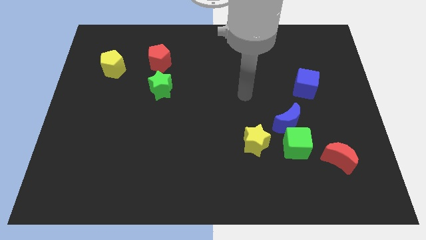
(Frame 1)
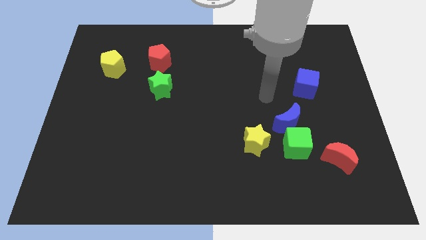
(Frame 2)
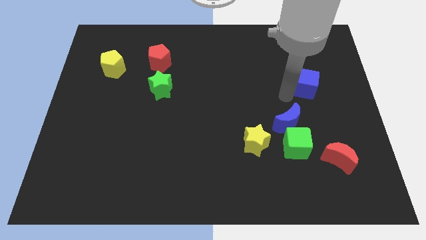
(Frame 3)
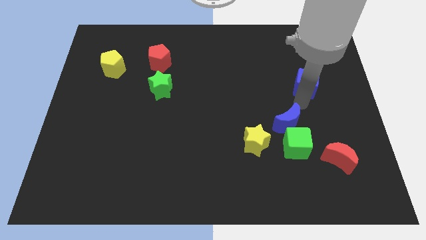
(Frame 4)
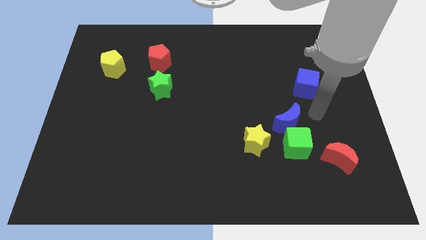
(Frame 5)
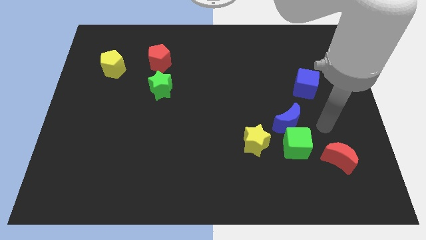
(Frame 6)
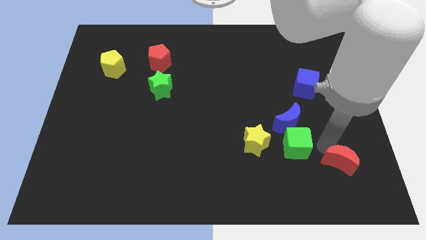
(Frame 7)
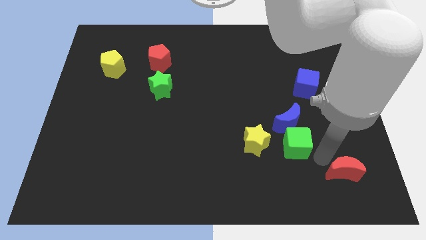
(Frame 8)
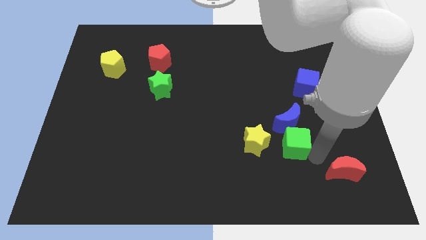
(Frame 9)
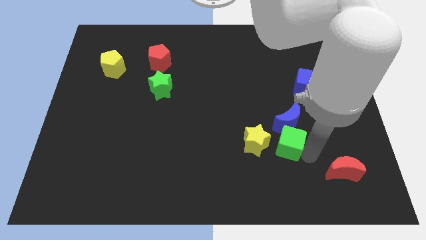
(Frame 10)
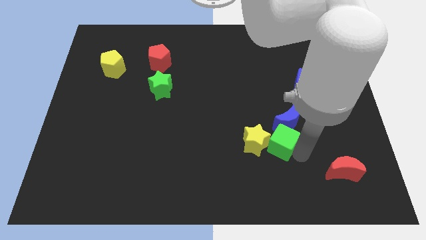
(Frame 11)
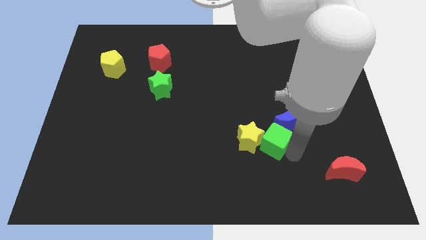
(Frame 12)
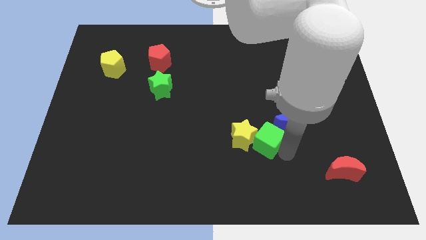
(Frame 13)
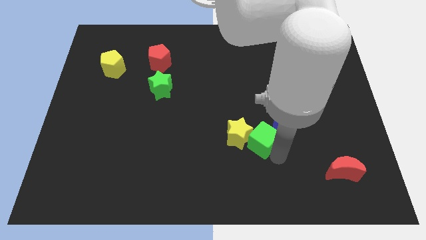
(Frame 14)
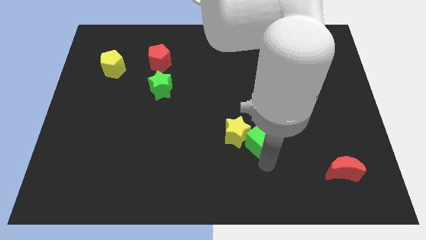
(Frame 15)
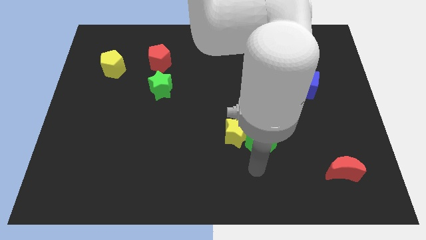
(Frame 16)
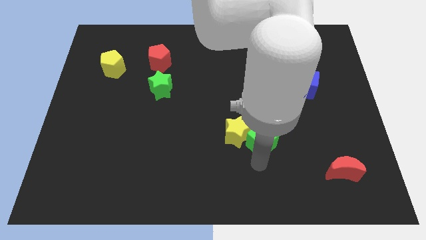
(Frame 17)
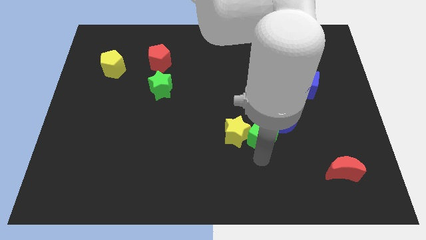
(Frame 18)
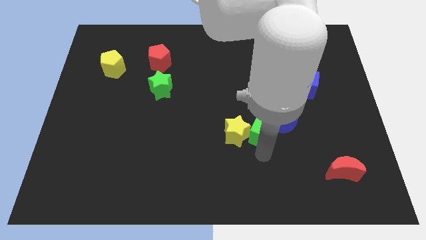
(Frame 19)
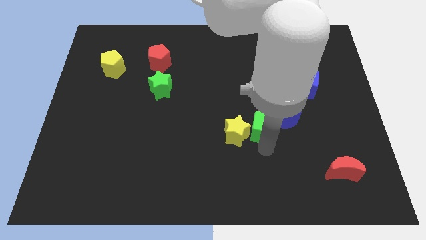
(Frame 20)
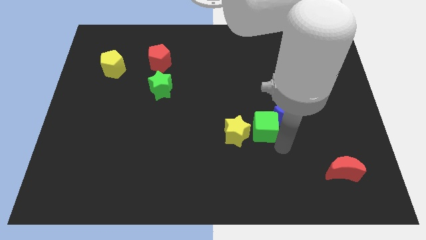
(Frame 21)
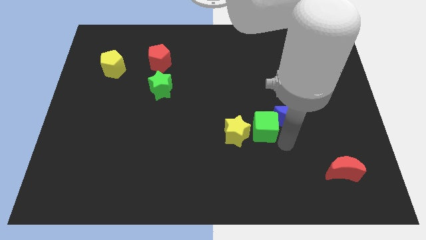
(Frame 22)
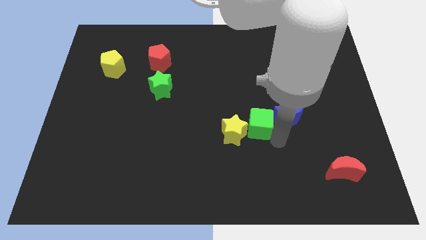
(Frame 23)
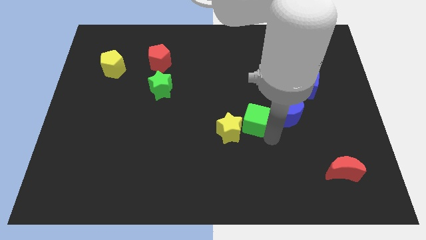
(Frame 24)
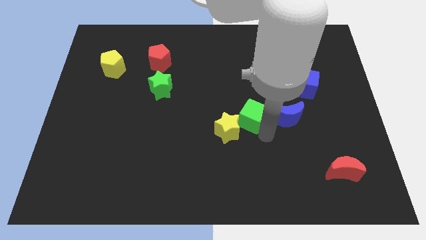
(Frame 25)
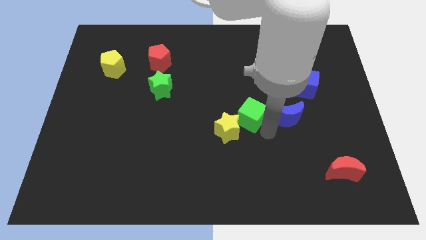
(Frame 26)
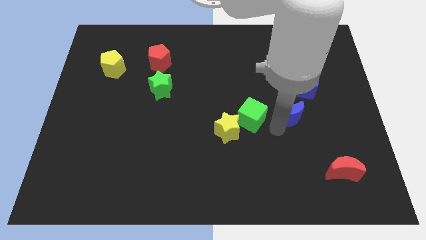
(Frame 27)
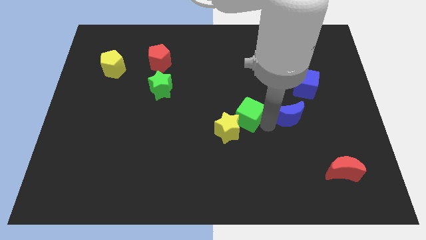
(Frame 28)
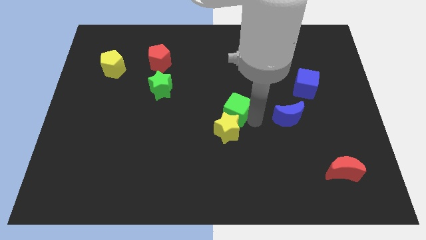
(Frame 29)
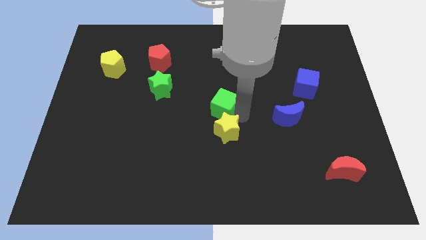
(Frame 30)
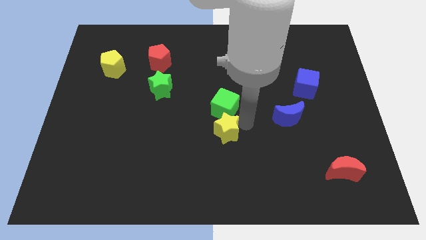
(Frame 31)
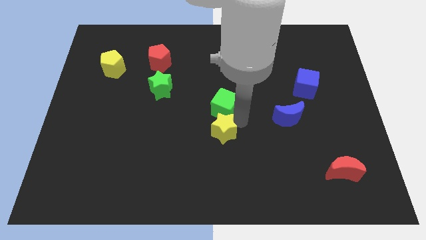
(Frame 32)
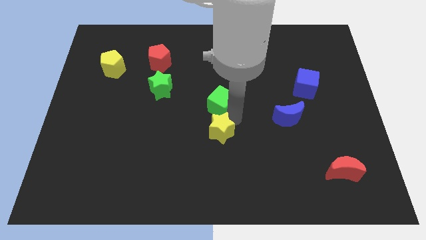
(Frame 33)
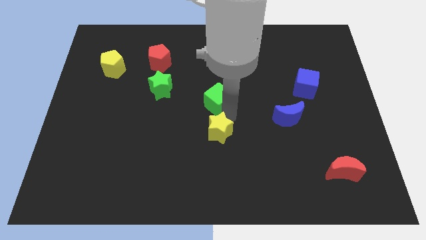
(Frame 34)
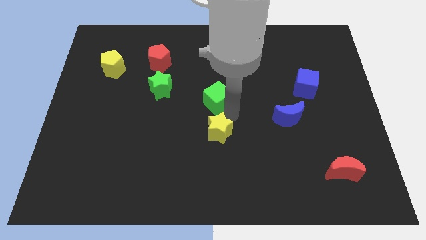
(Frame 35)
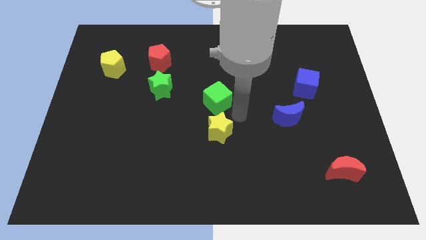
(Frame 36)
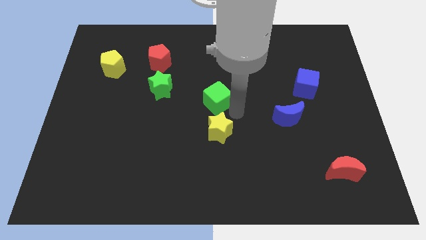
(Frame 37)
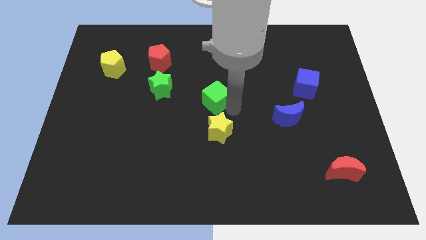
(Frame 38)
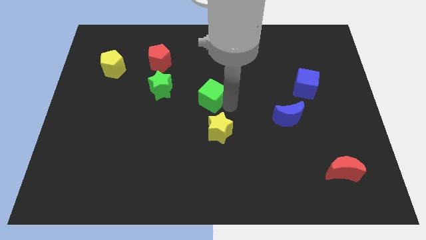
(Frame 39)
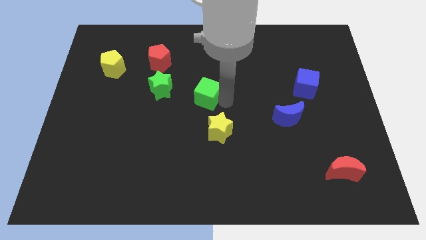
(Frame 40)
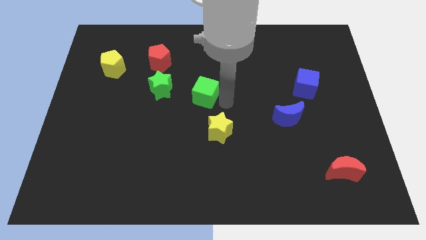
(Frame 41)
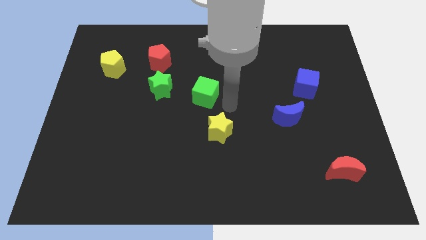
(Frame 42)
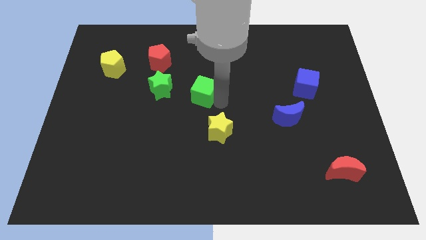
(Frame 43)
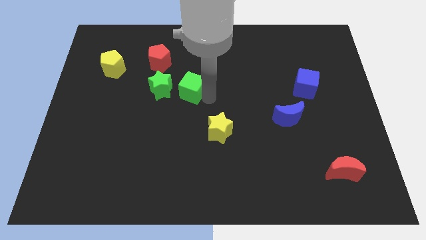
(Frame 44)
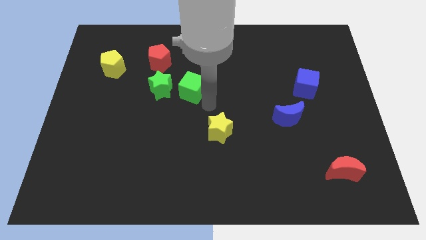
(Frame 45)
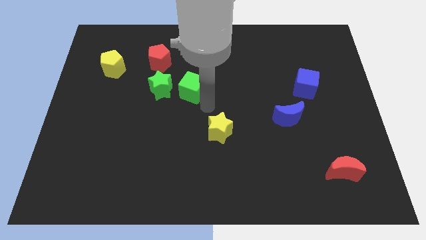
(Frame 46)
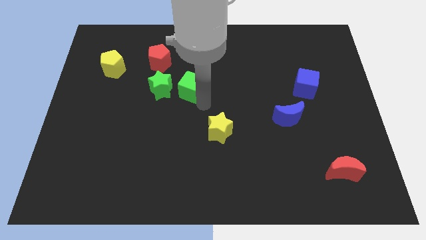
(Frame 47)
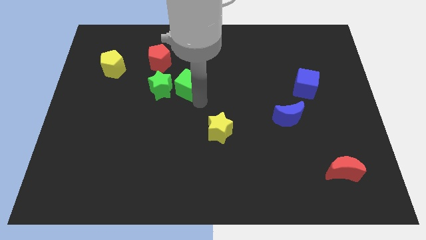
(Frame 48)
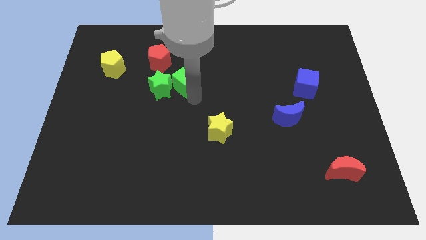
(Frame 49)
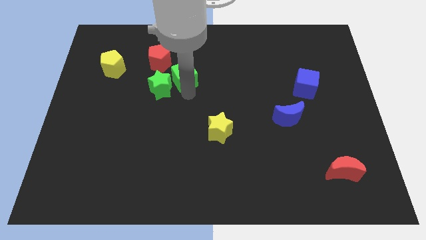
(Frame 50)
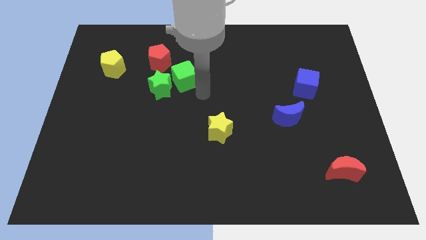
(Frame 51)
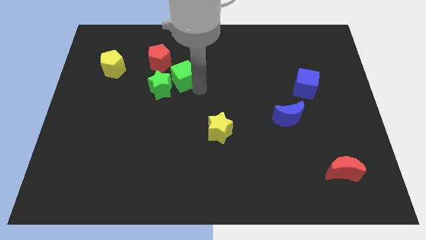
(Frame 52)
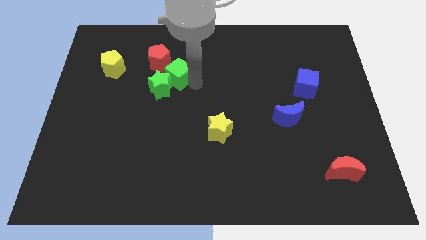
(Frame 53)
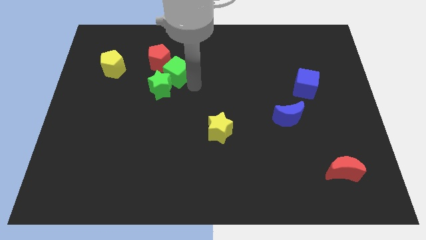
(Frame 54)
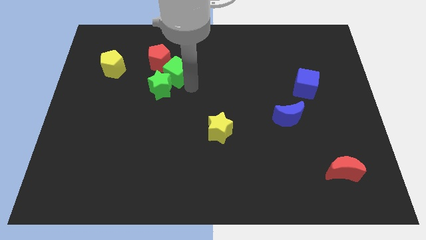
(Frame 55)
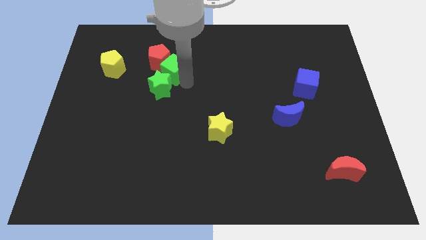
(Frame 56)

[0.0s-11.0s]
push the green cube next to the red pentagon

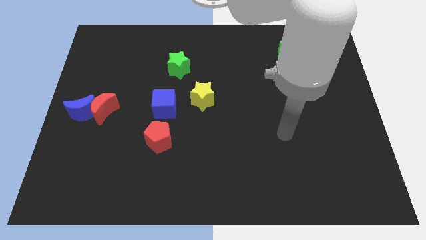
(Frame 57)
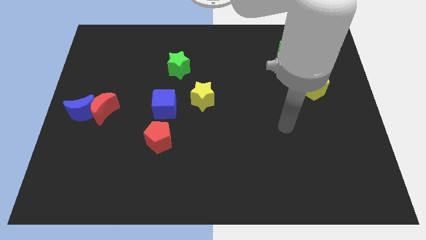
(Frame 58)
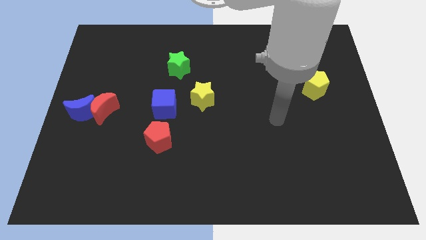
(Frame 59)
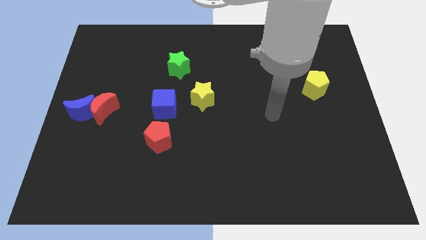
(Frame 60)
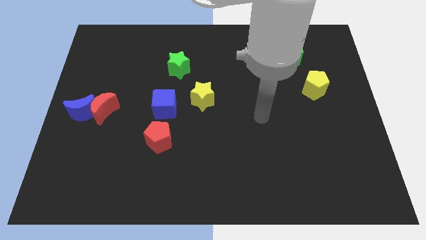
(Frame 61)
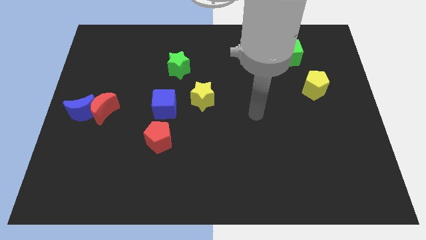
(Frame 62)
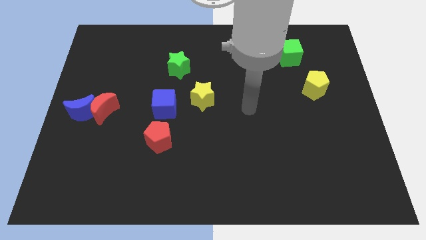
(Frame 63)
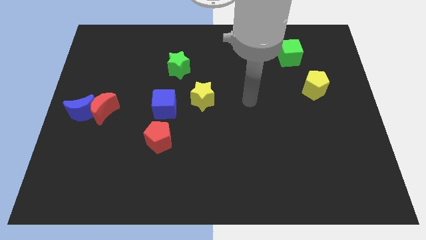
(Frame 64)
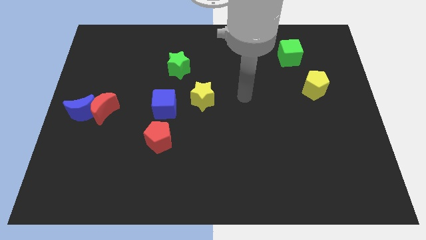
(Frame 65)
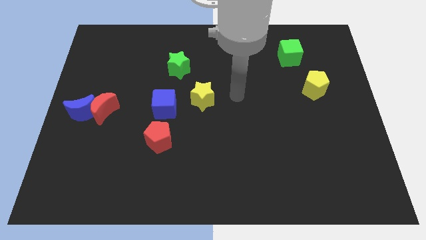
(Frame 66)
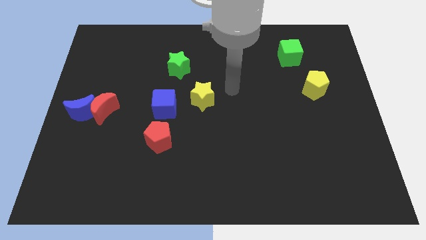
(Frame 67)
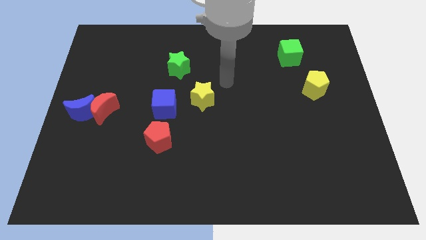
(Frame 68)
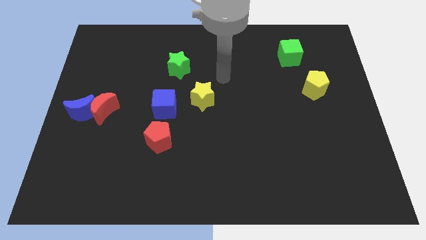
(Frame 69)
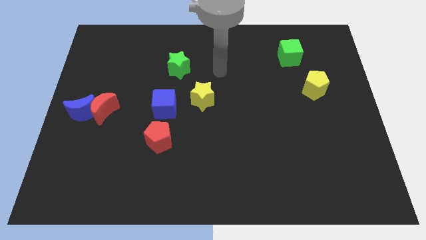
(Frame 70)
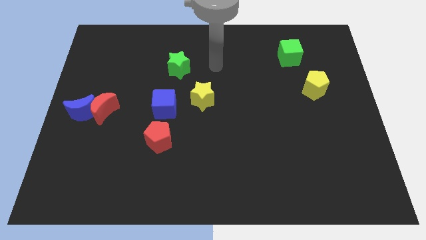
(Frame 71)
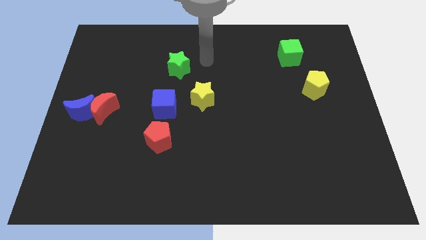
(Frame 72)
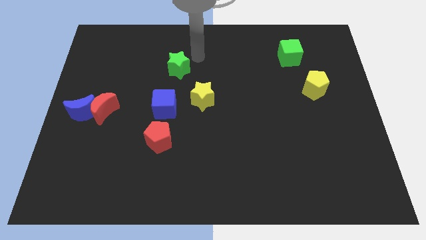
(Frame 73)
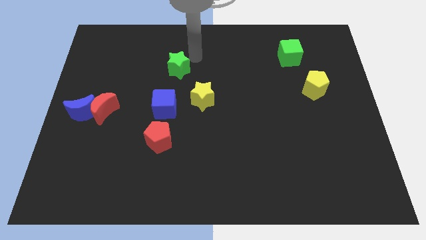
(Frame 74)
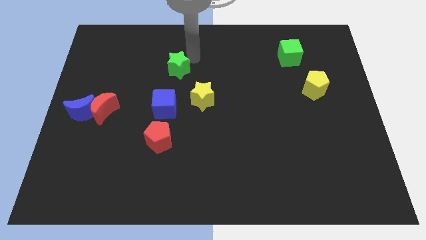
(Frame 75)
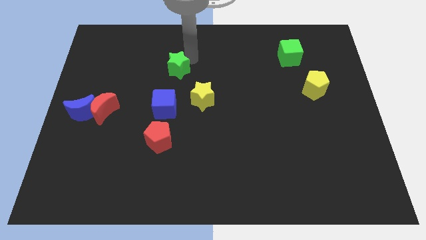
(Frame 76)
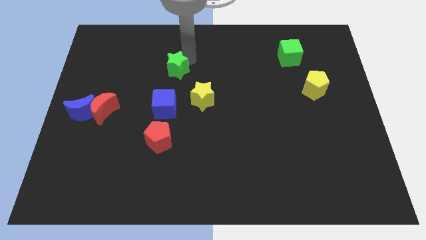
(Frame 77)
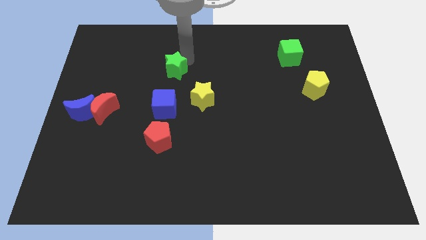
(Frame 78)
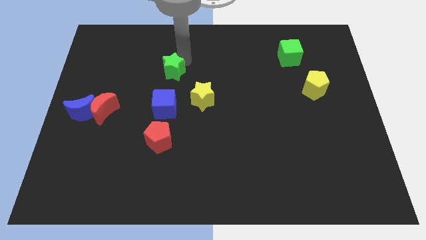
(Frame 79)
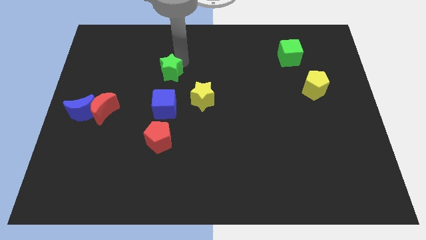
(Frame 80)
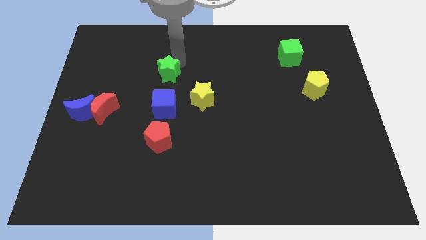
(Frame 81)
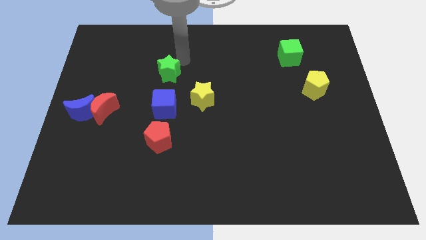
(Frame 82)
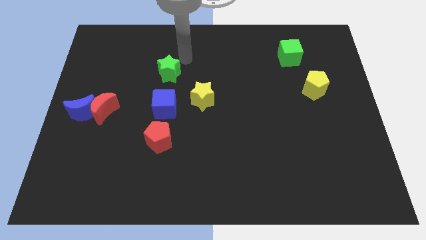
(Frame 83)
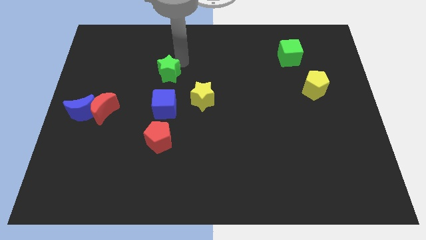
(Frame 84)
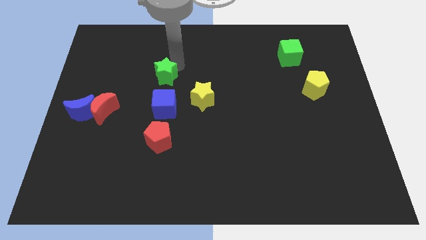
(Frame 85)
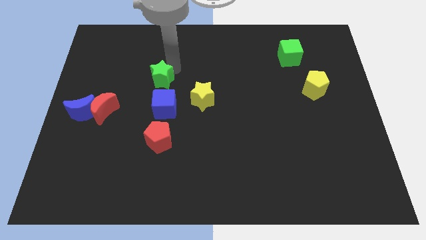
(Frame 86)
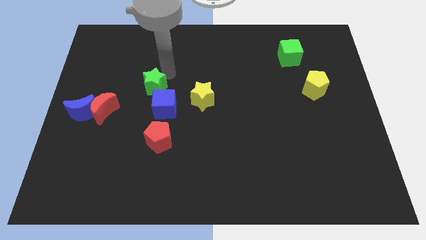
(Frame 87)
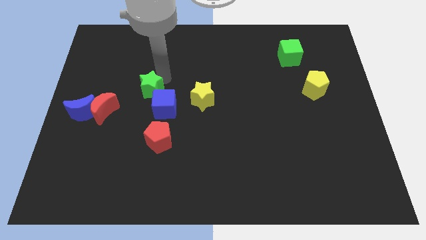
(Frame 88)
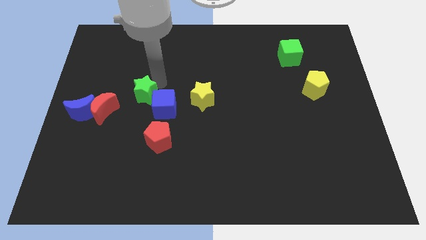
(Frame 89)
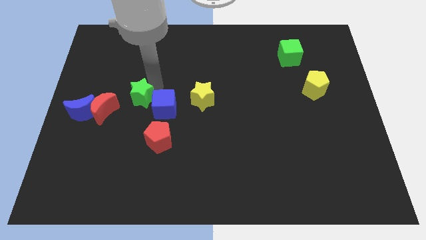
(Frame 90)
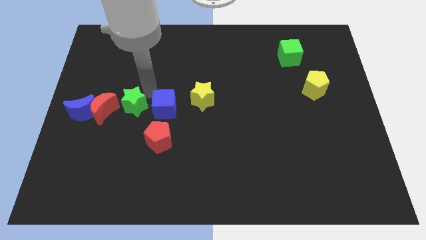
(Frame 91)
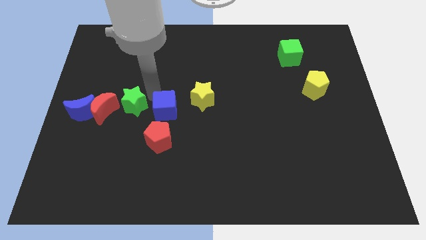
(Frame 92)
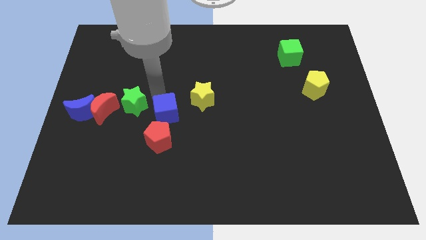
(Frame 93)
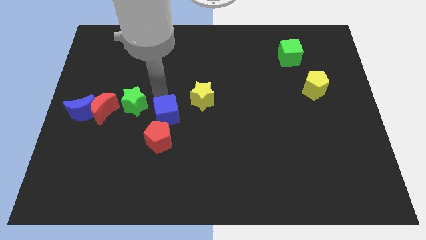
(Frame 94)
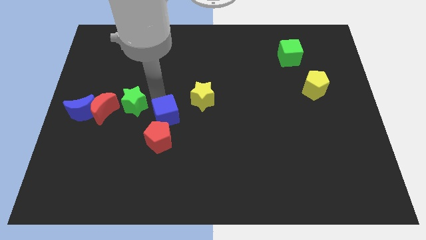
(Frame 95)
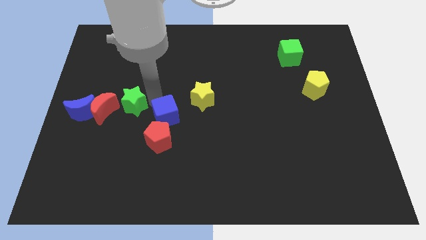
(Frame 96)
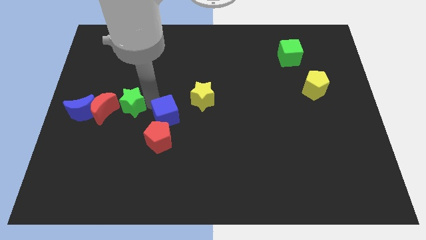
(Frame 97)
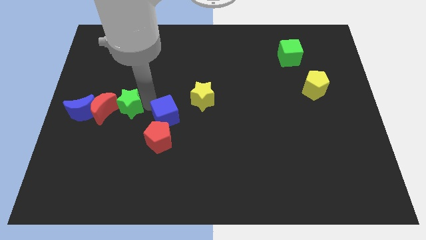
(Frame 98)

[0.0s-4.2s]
move the green star next to the red moon
